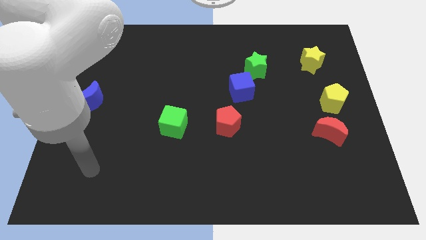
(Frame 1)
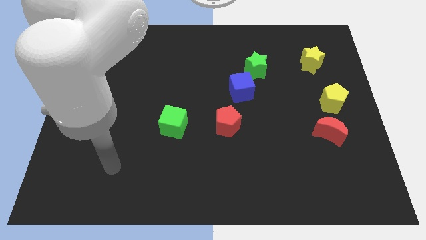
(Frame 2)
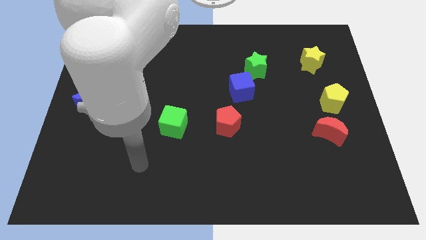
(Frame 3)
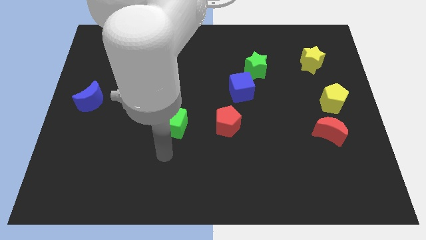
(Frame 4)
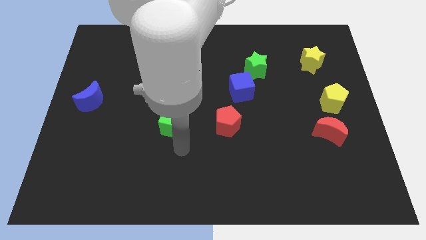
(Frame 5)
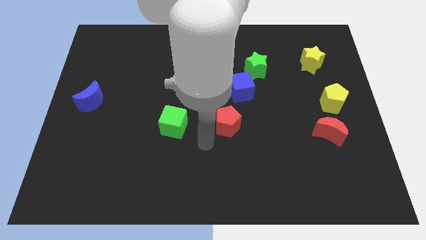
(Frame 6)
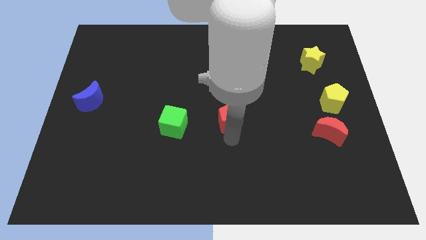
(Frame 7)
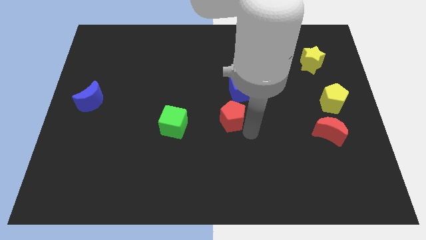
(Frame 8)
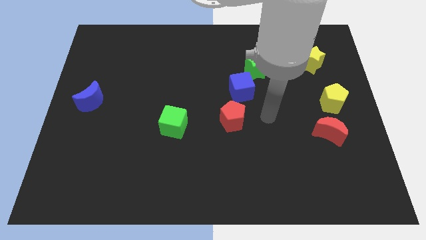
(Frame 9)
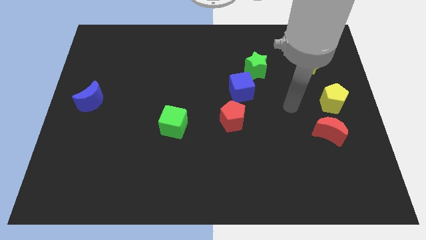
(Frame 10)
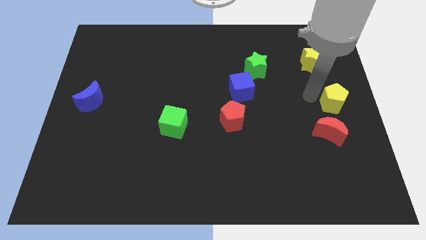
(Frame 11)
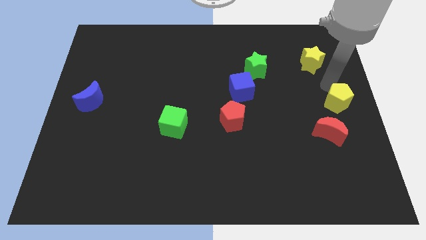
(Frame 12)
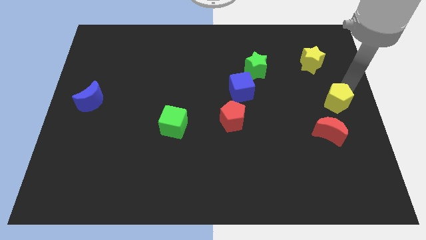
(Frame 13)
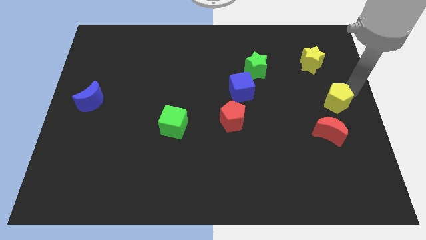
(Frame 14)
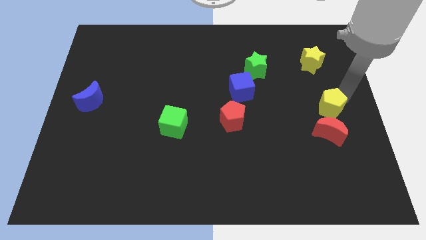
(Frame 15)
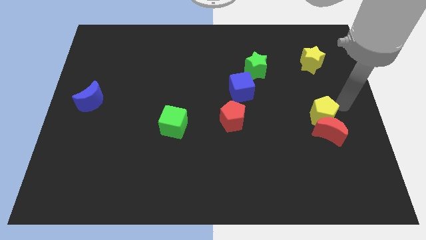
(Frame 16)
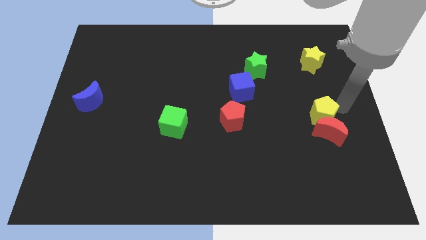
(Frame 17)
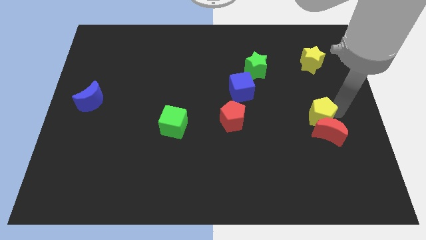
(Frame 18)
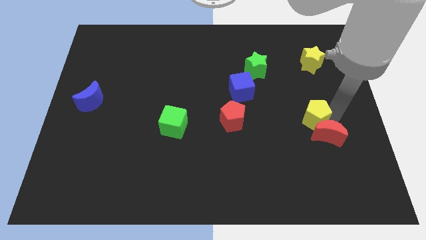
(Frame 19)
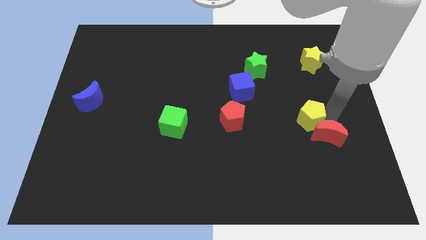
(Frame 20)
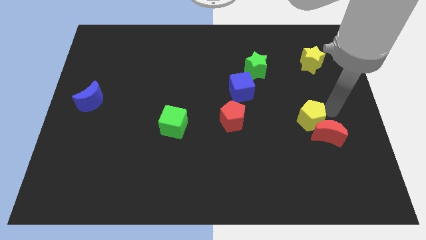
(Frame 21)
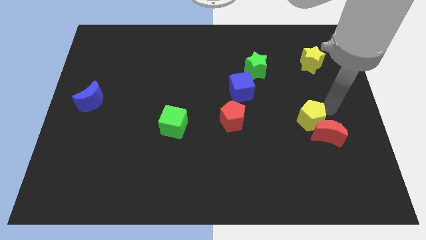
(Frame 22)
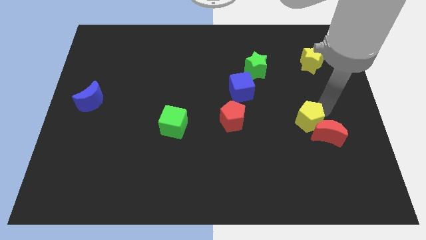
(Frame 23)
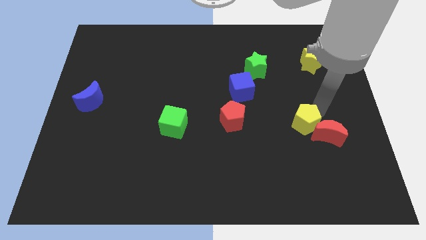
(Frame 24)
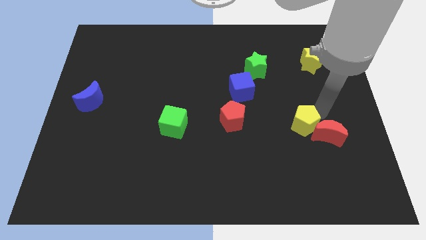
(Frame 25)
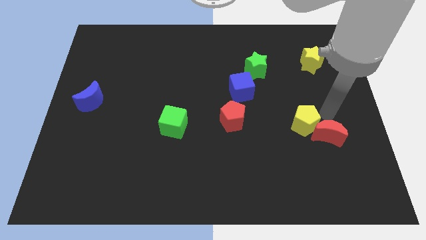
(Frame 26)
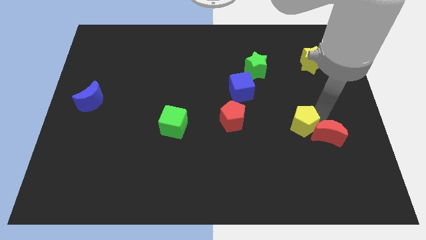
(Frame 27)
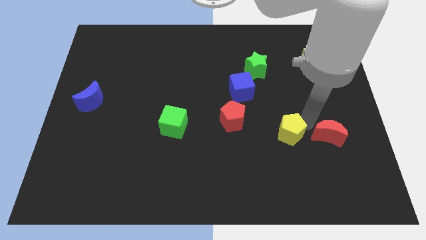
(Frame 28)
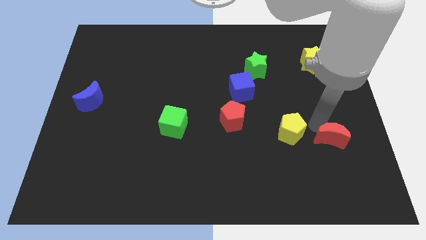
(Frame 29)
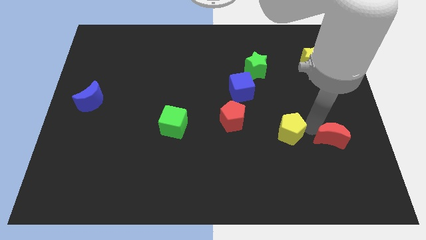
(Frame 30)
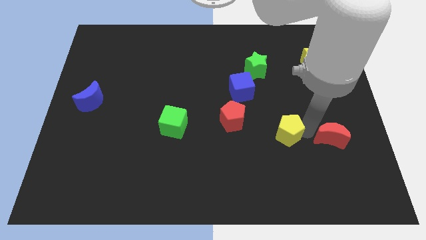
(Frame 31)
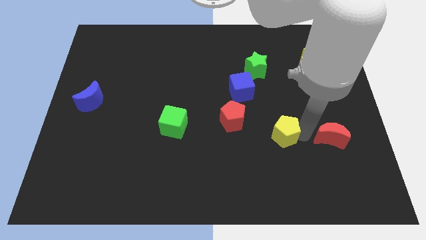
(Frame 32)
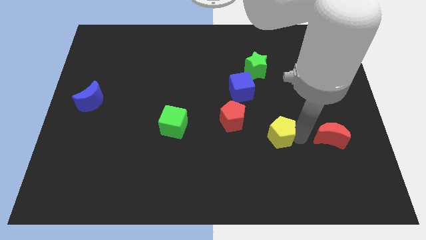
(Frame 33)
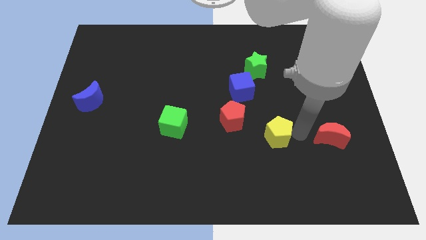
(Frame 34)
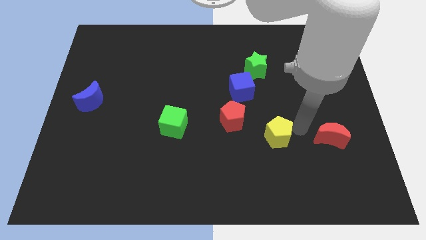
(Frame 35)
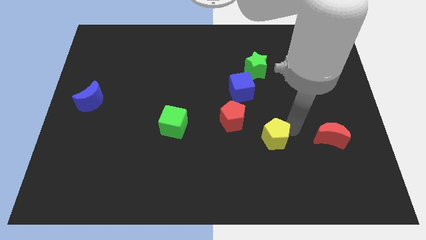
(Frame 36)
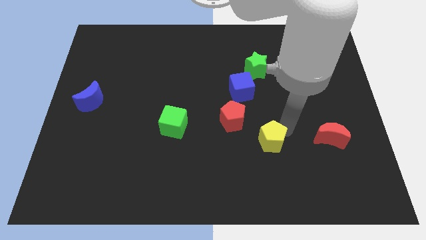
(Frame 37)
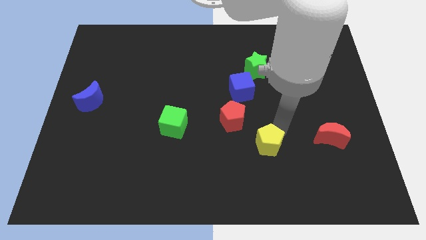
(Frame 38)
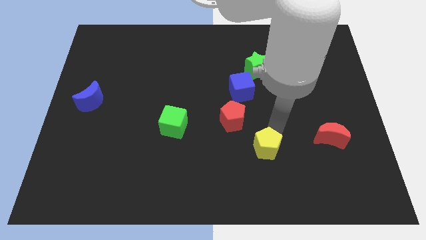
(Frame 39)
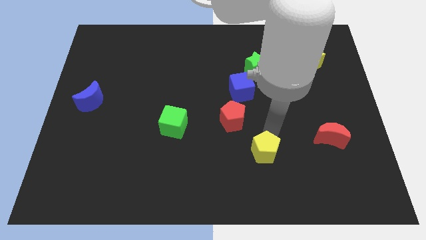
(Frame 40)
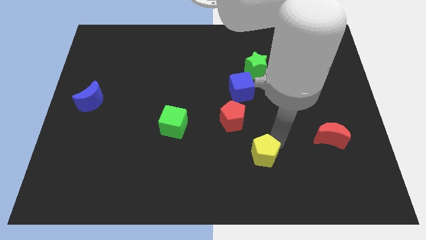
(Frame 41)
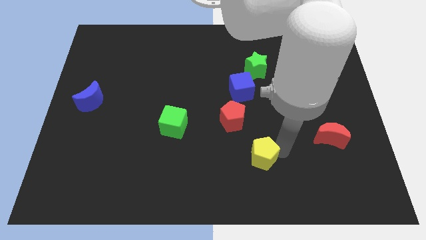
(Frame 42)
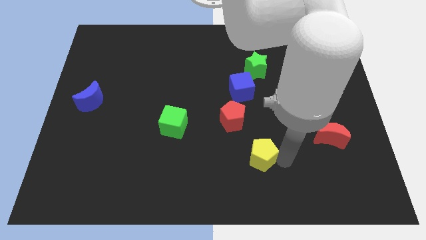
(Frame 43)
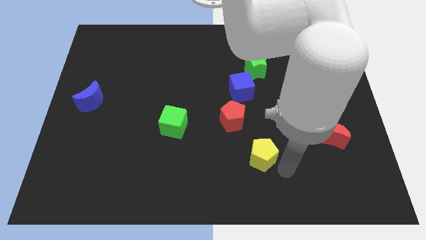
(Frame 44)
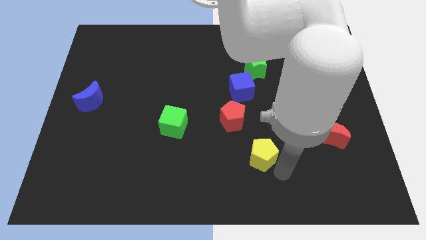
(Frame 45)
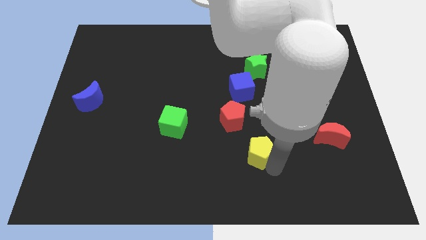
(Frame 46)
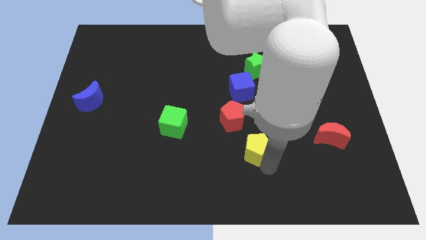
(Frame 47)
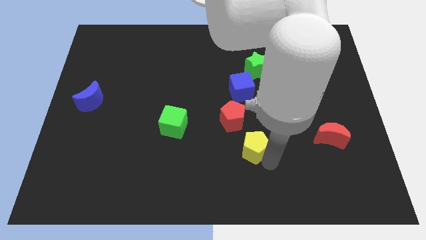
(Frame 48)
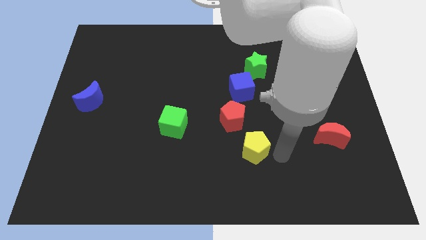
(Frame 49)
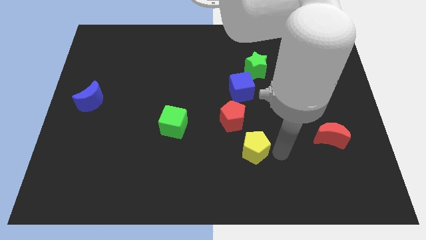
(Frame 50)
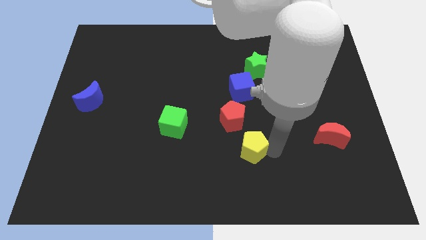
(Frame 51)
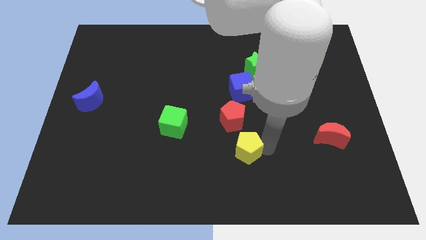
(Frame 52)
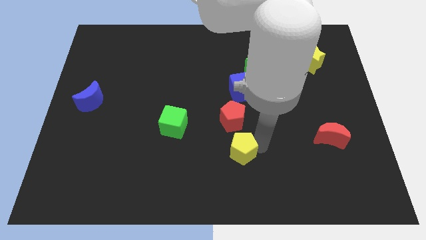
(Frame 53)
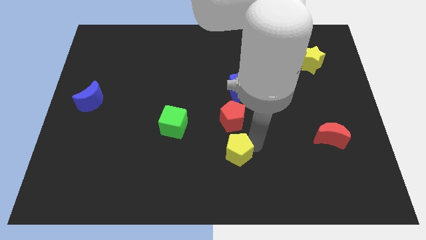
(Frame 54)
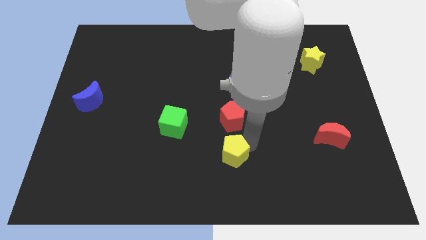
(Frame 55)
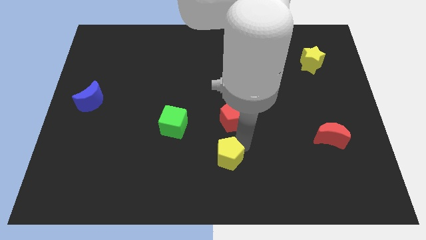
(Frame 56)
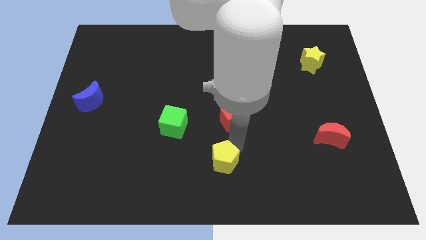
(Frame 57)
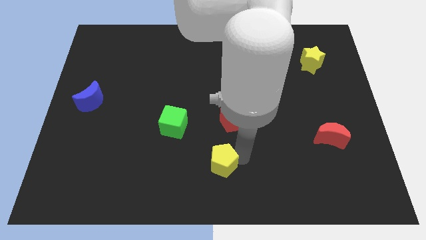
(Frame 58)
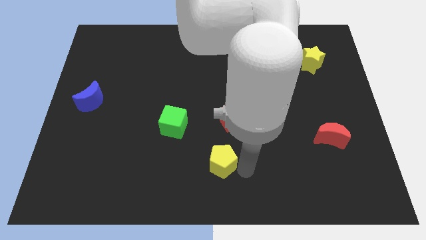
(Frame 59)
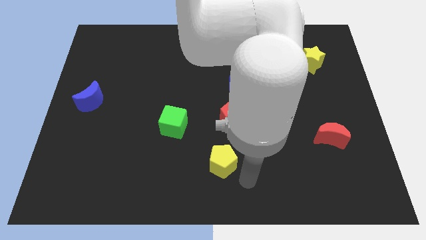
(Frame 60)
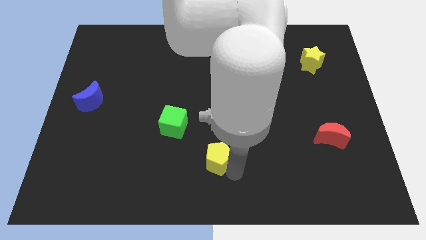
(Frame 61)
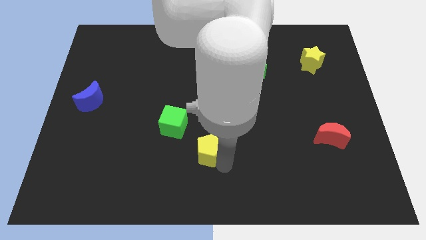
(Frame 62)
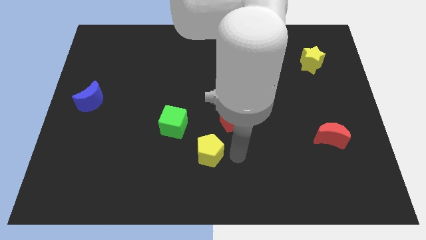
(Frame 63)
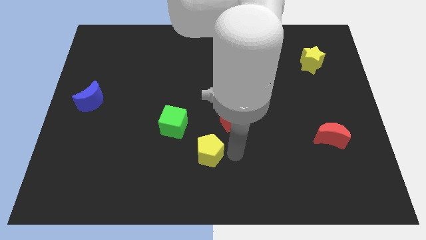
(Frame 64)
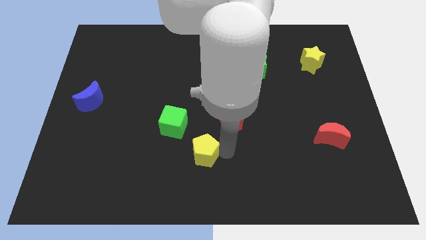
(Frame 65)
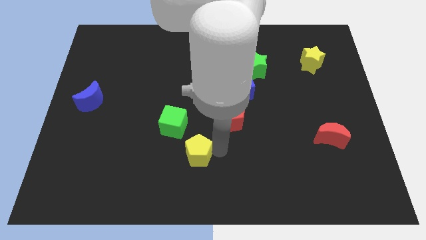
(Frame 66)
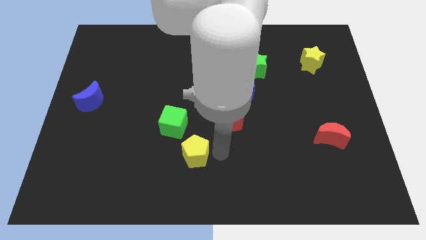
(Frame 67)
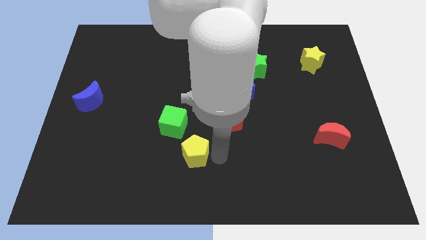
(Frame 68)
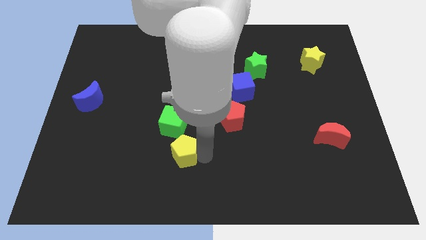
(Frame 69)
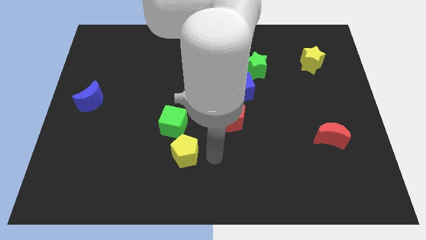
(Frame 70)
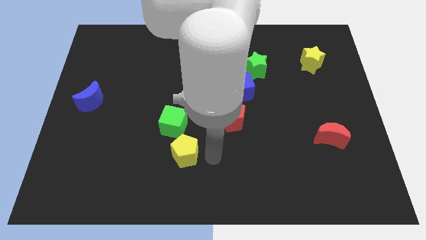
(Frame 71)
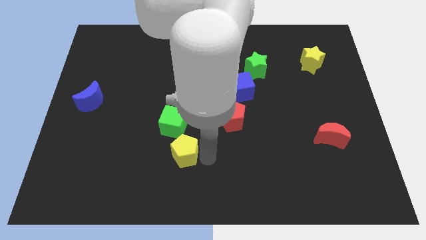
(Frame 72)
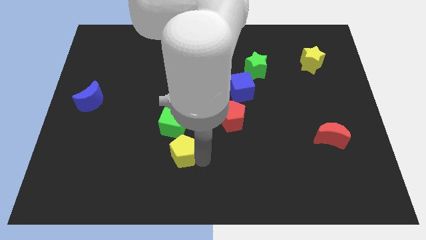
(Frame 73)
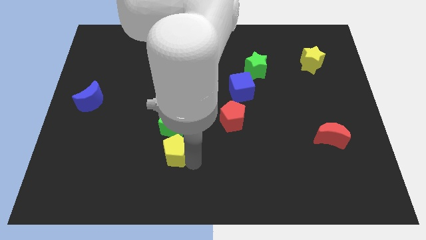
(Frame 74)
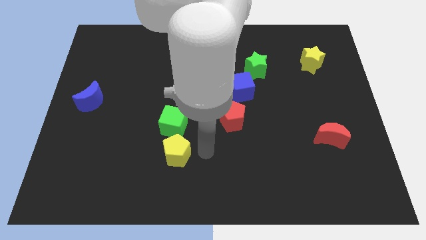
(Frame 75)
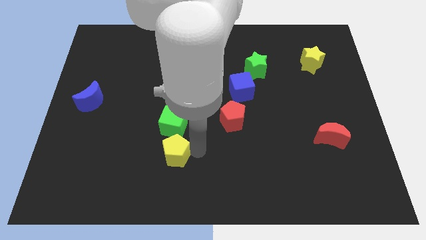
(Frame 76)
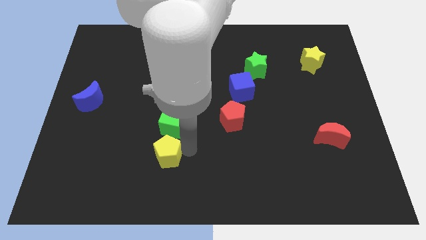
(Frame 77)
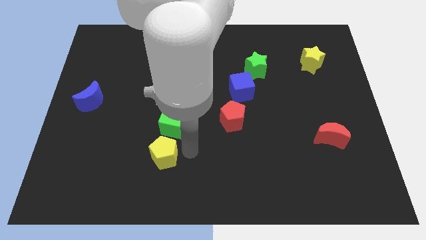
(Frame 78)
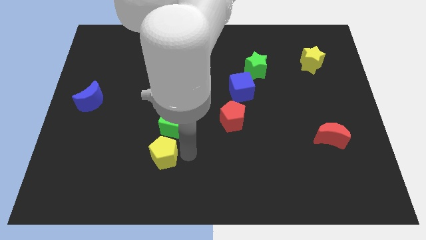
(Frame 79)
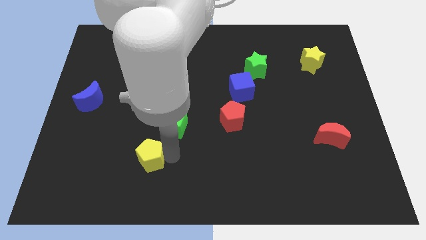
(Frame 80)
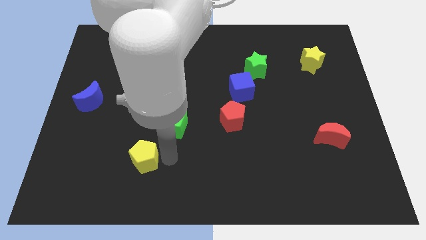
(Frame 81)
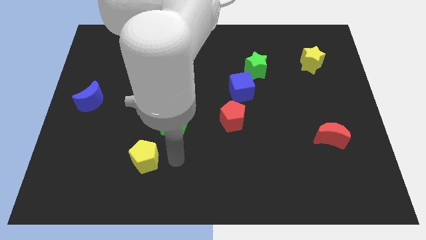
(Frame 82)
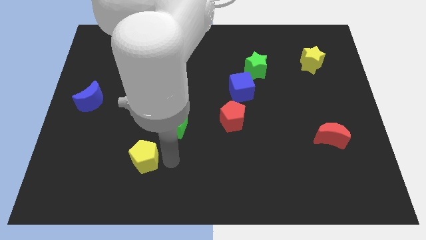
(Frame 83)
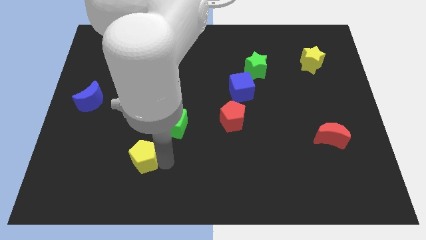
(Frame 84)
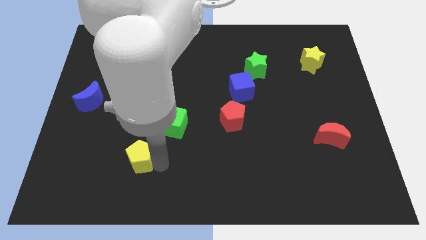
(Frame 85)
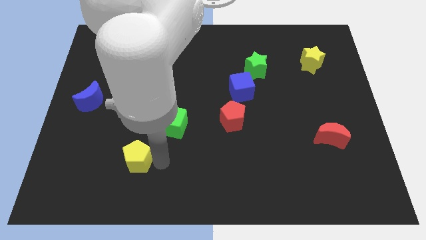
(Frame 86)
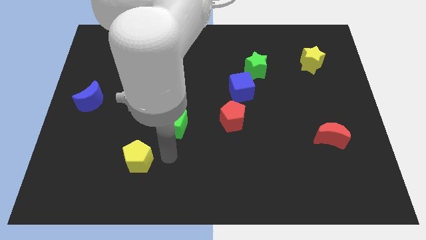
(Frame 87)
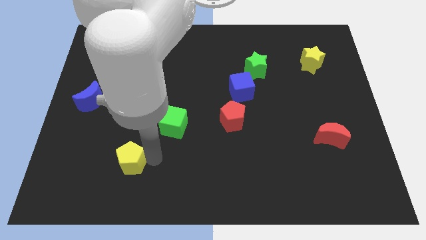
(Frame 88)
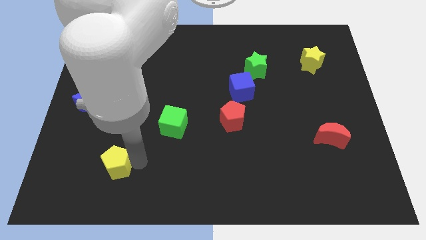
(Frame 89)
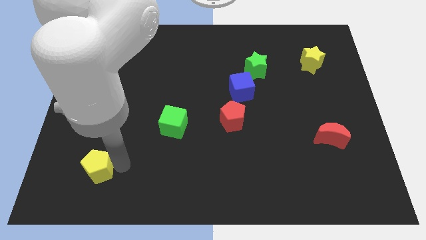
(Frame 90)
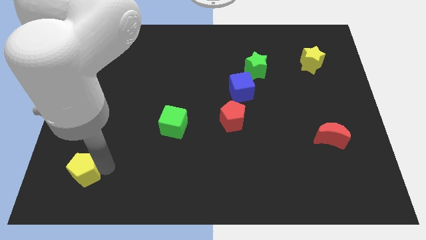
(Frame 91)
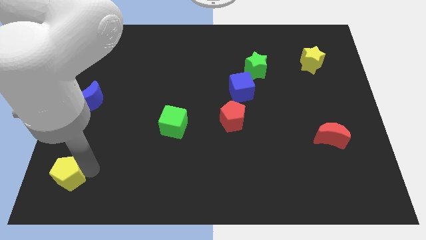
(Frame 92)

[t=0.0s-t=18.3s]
move the yellow pentagon to the bottom left corner
